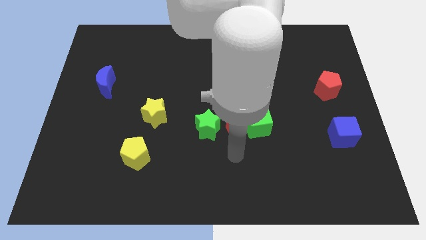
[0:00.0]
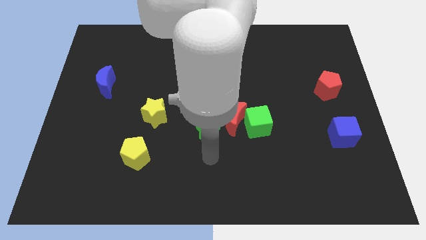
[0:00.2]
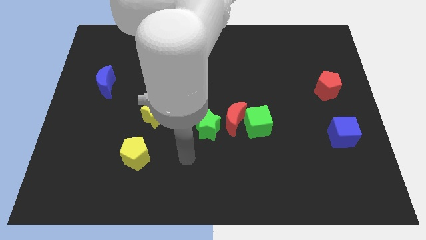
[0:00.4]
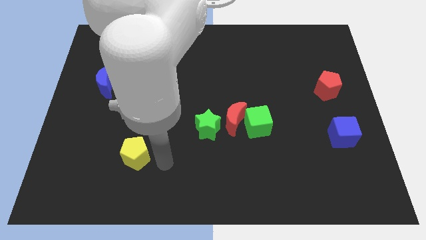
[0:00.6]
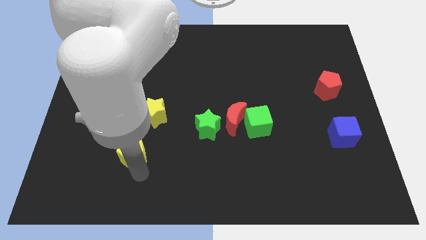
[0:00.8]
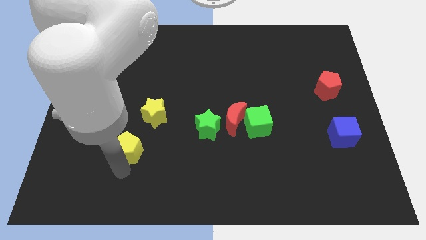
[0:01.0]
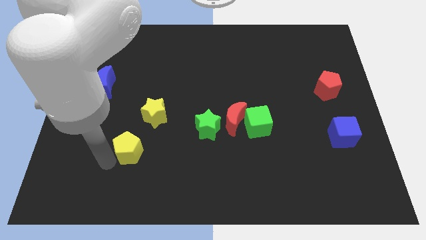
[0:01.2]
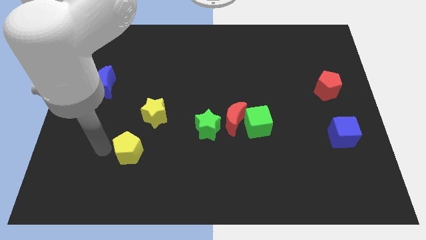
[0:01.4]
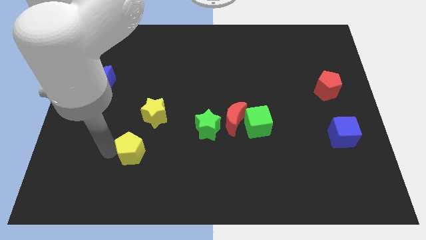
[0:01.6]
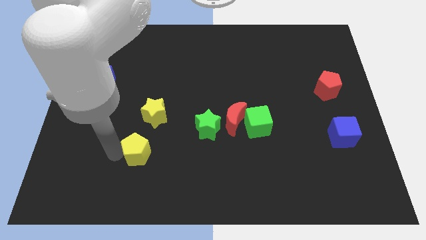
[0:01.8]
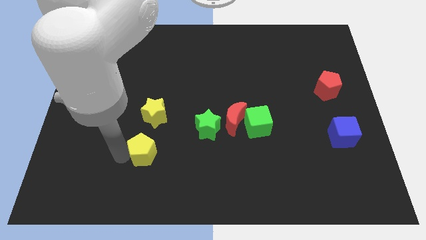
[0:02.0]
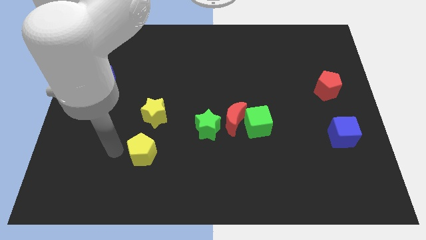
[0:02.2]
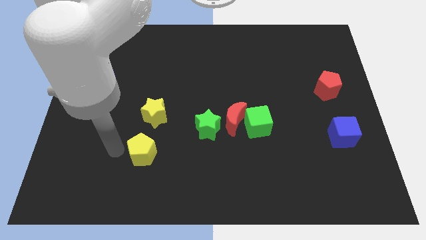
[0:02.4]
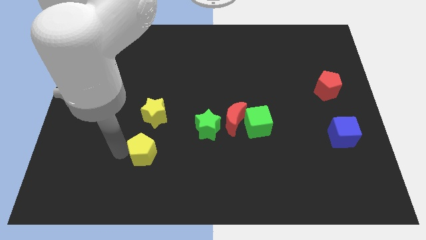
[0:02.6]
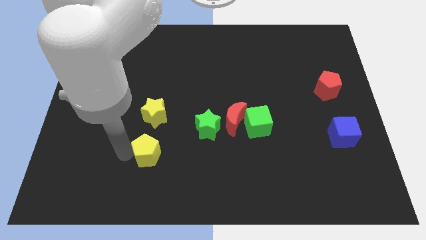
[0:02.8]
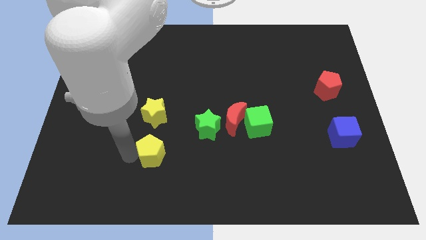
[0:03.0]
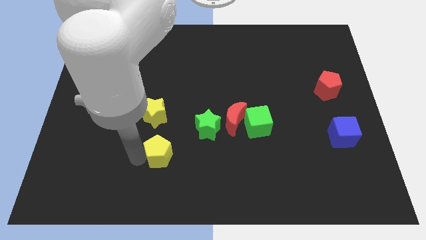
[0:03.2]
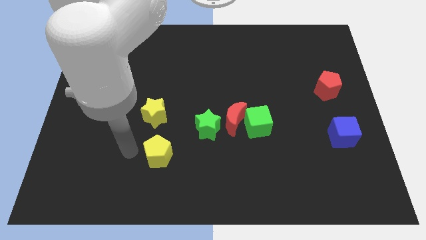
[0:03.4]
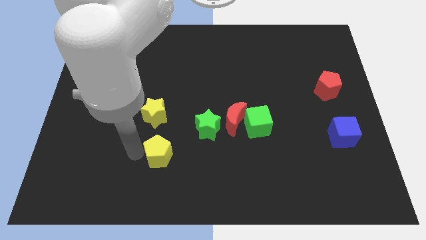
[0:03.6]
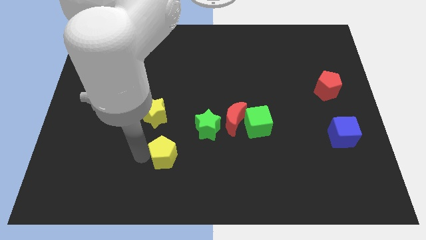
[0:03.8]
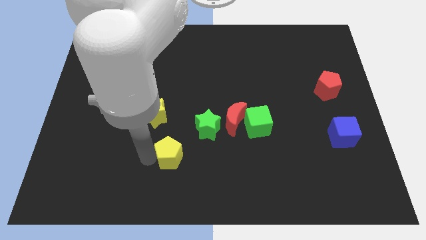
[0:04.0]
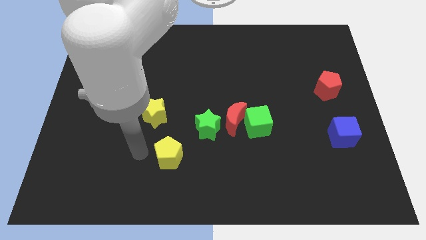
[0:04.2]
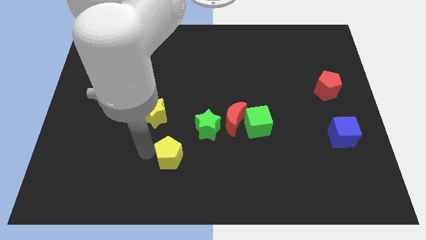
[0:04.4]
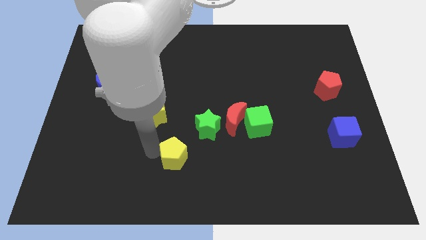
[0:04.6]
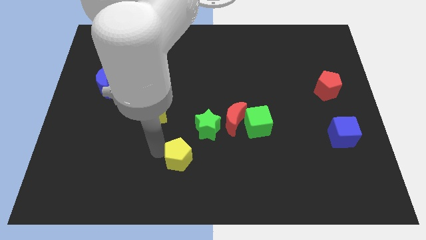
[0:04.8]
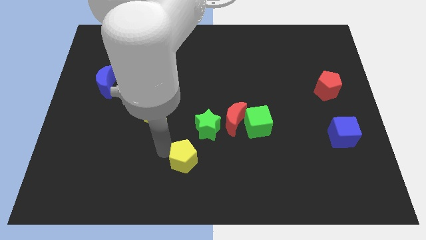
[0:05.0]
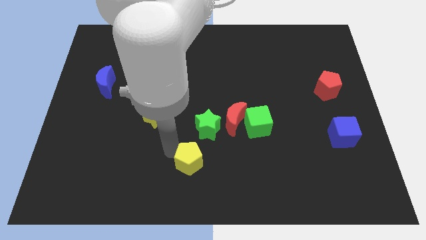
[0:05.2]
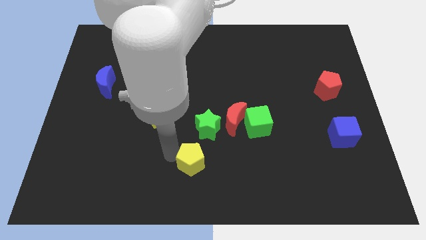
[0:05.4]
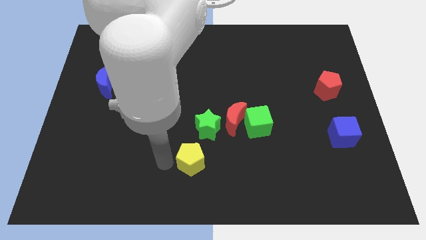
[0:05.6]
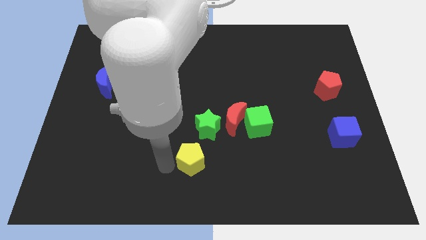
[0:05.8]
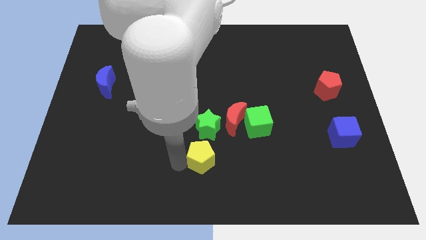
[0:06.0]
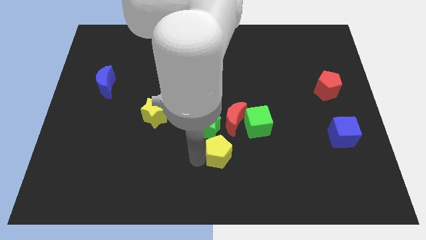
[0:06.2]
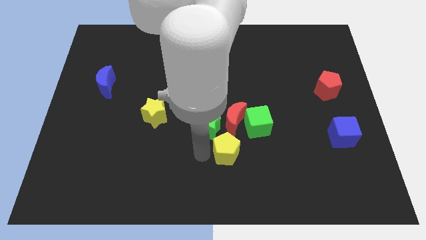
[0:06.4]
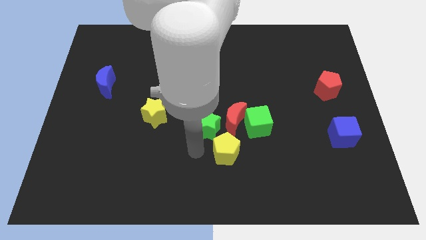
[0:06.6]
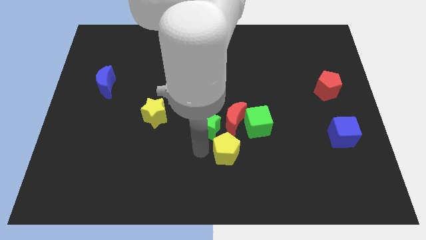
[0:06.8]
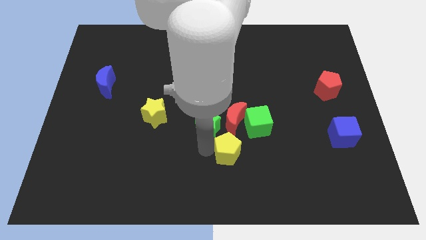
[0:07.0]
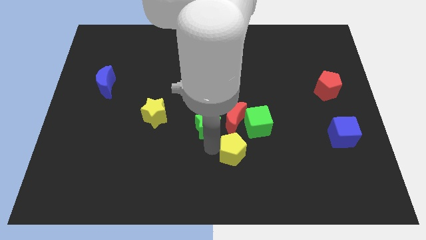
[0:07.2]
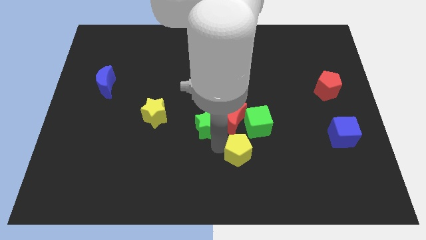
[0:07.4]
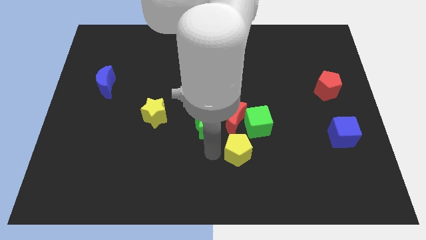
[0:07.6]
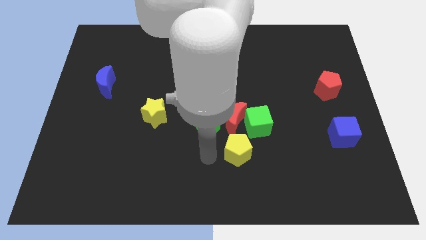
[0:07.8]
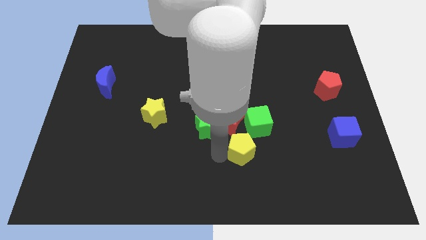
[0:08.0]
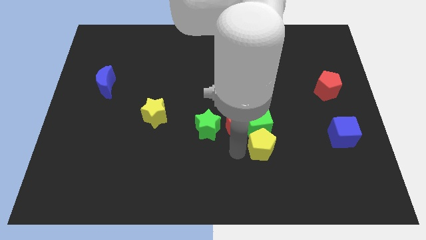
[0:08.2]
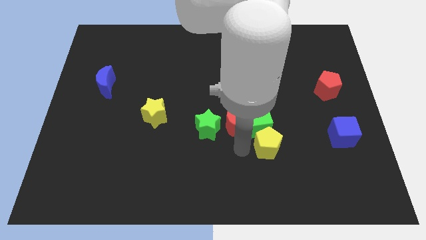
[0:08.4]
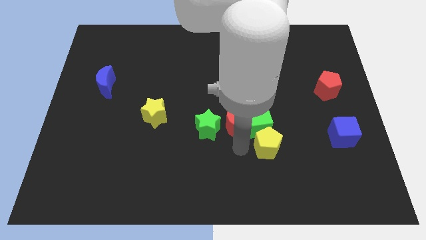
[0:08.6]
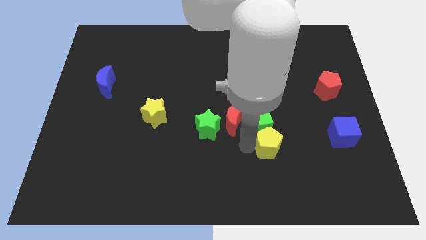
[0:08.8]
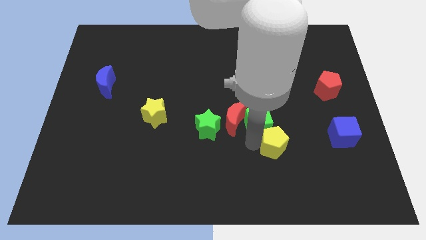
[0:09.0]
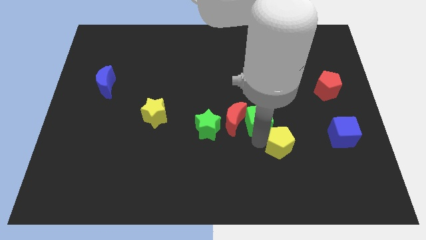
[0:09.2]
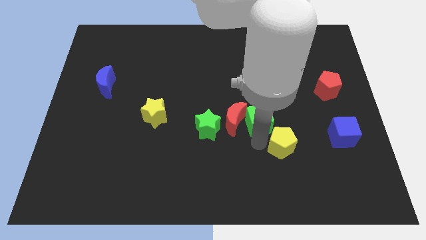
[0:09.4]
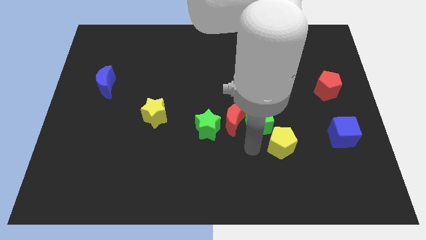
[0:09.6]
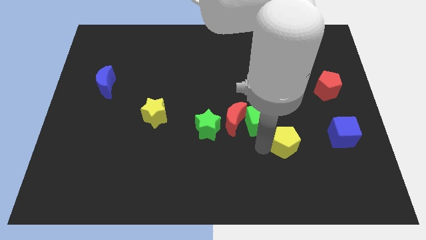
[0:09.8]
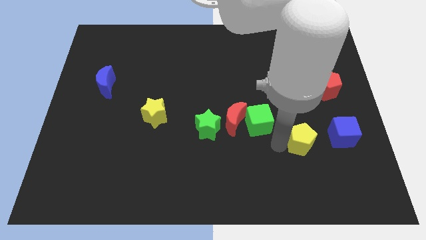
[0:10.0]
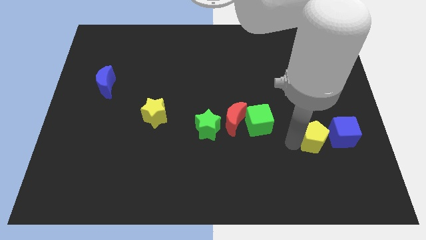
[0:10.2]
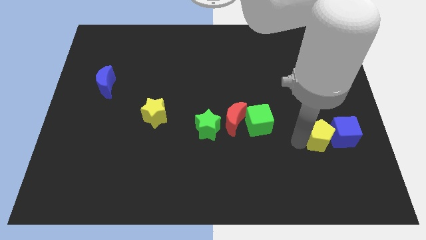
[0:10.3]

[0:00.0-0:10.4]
slide the yellow pentagon towards the blue cube

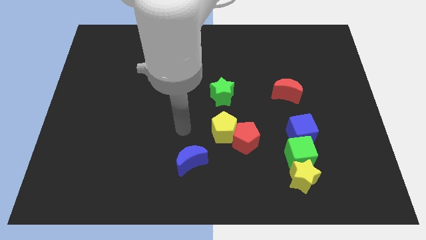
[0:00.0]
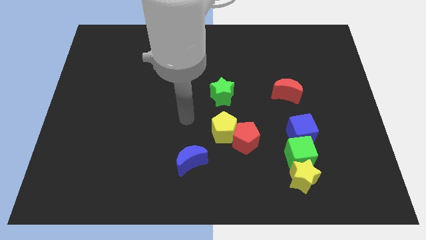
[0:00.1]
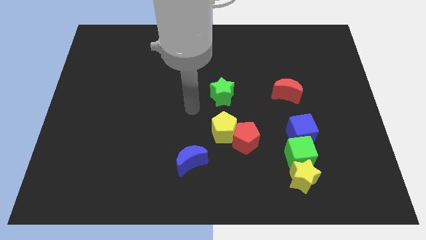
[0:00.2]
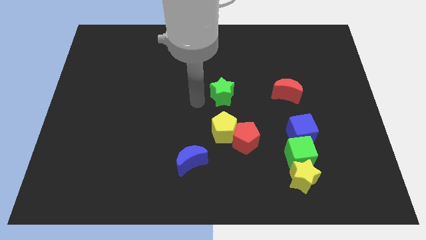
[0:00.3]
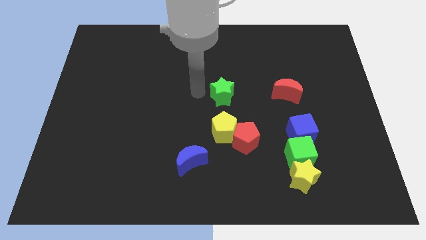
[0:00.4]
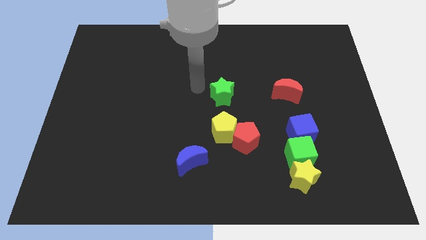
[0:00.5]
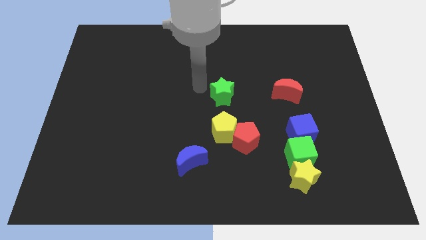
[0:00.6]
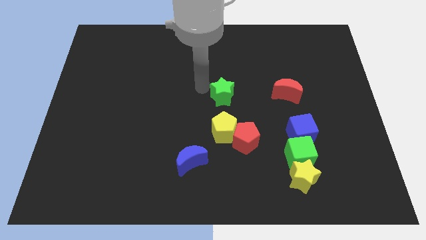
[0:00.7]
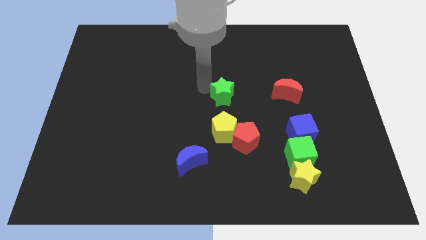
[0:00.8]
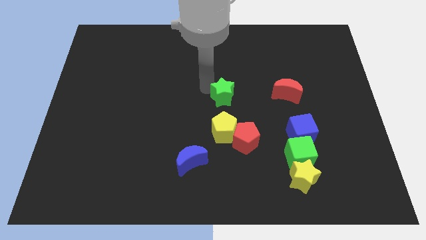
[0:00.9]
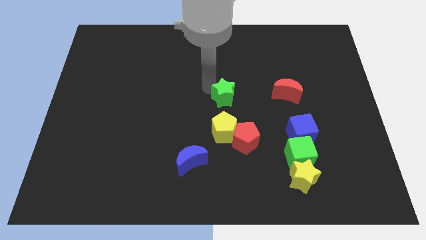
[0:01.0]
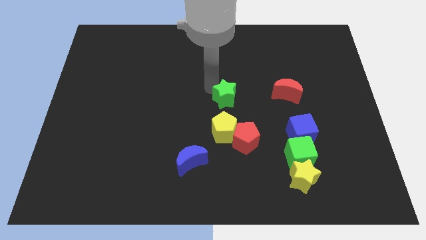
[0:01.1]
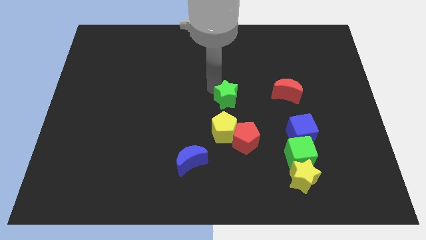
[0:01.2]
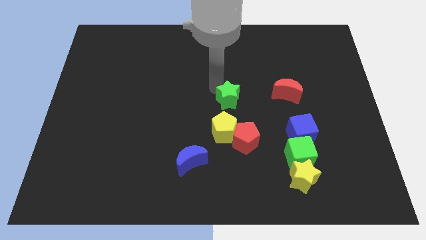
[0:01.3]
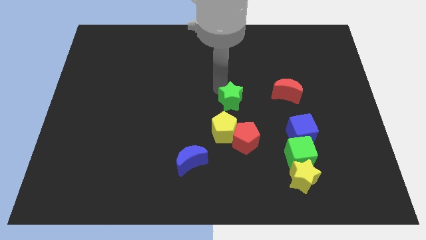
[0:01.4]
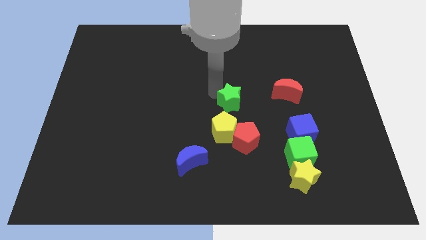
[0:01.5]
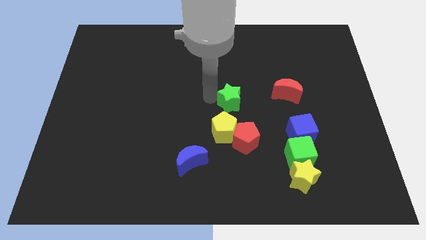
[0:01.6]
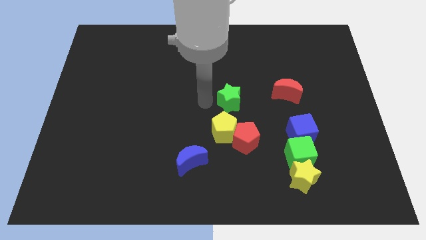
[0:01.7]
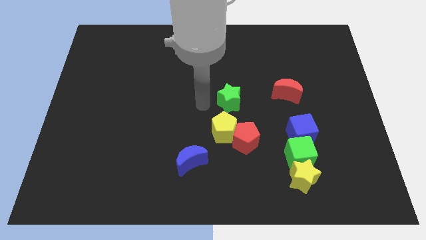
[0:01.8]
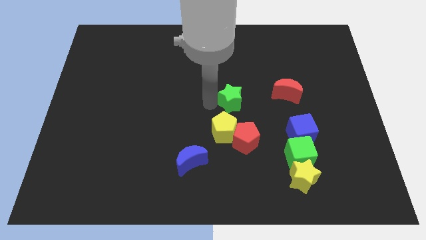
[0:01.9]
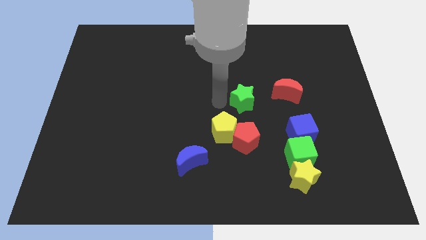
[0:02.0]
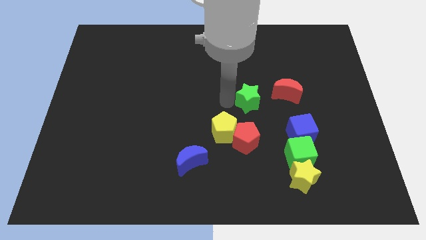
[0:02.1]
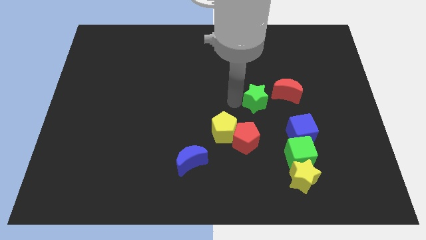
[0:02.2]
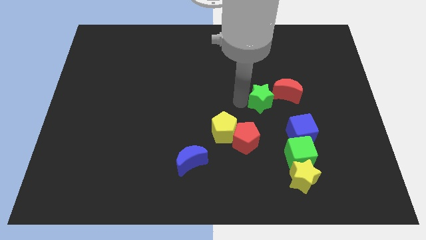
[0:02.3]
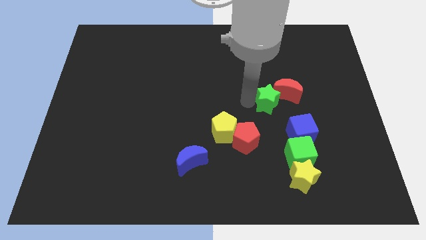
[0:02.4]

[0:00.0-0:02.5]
move the green star close to the red moon
